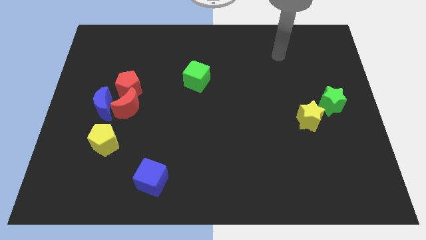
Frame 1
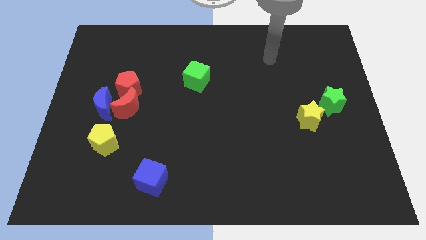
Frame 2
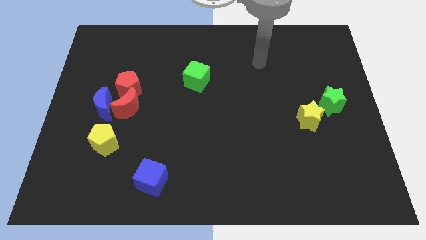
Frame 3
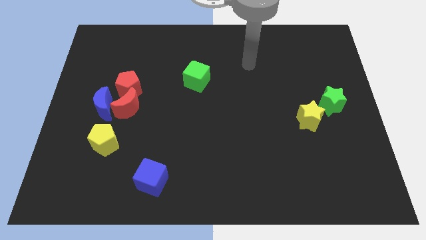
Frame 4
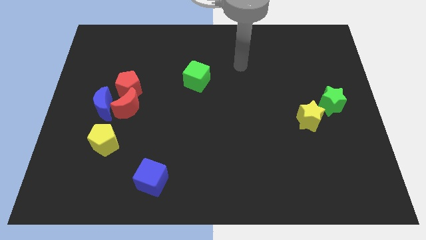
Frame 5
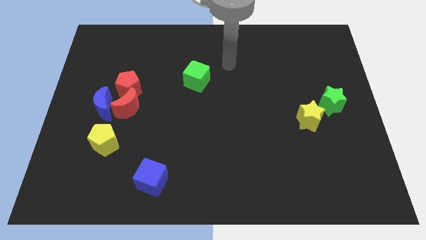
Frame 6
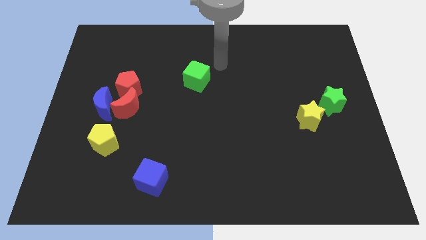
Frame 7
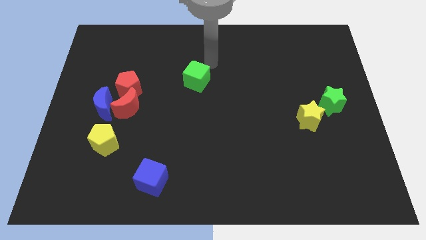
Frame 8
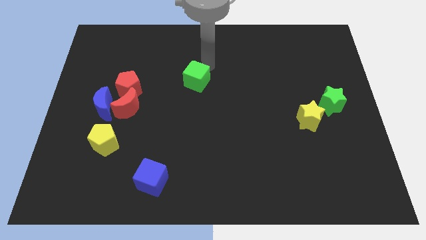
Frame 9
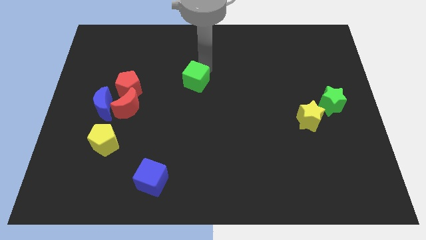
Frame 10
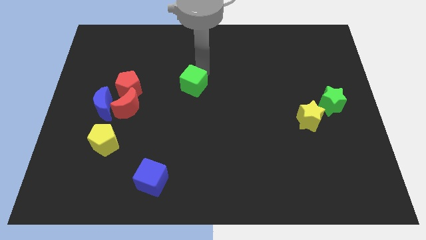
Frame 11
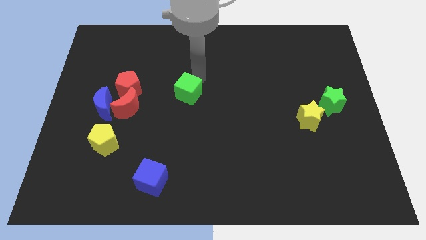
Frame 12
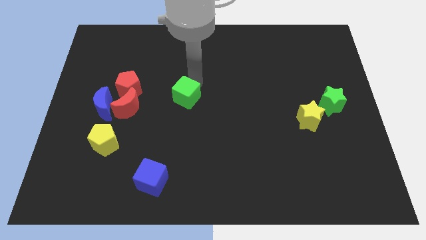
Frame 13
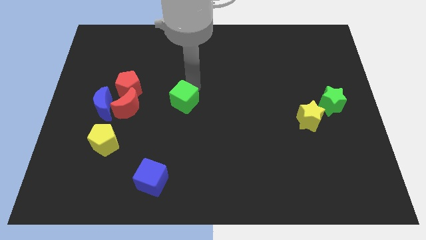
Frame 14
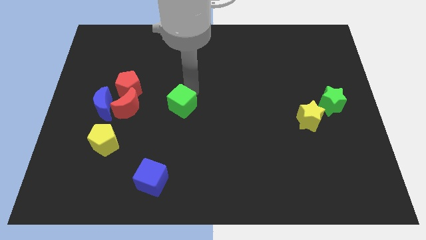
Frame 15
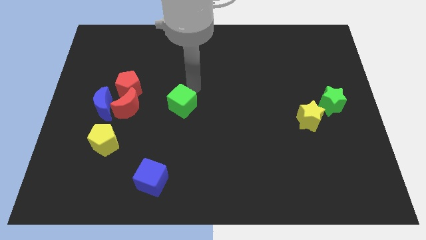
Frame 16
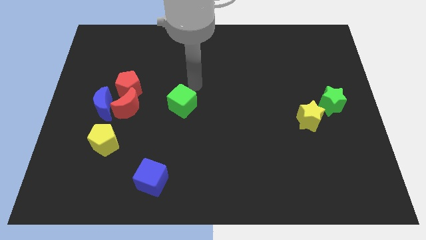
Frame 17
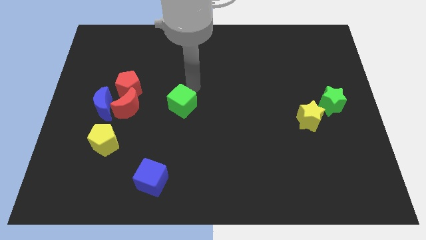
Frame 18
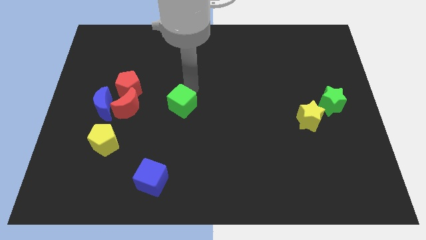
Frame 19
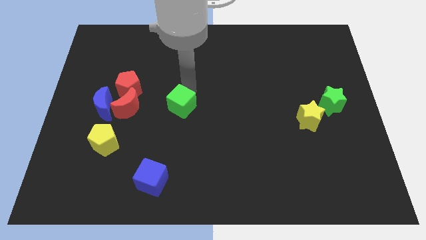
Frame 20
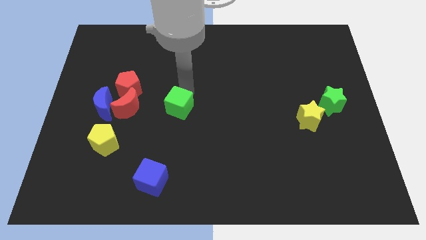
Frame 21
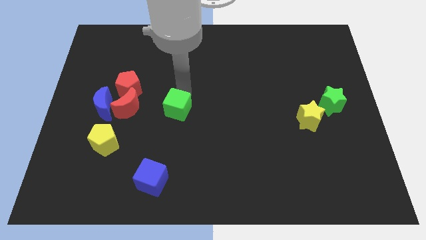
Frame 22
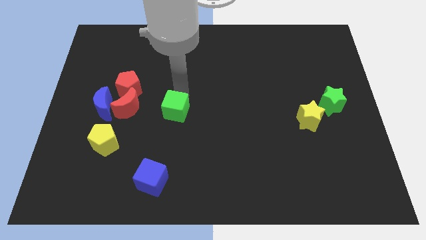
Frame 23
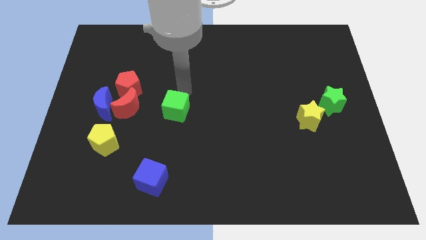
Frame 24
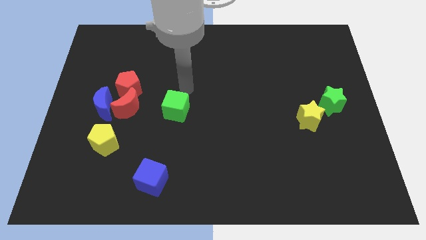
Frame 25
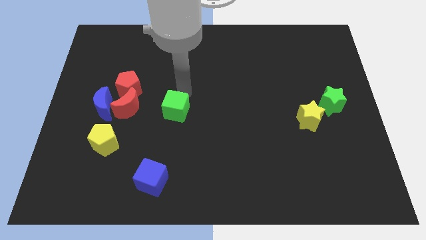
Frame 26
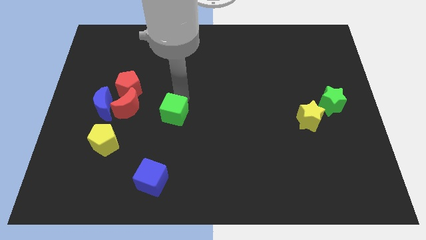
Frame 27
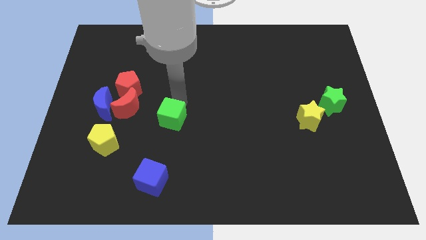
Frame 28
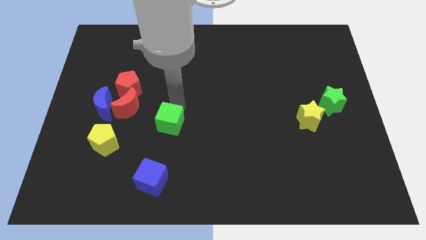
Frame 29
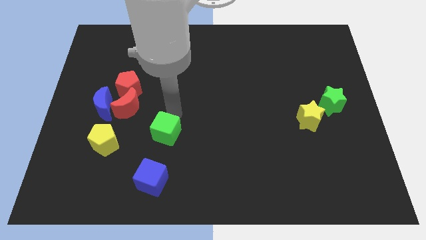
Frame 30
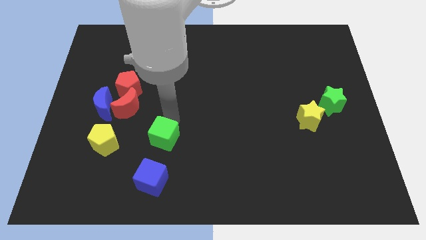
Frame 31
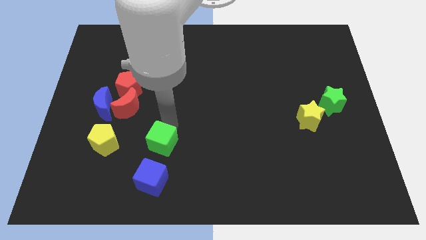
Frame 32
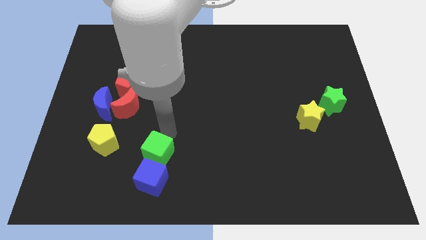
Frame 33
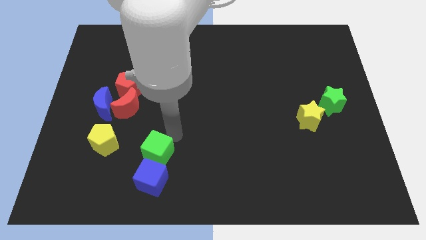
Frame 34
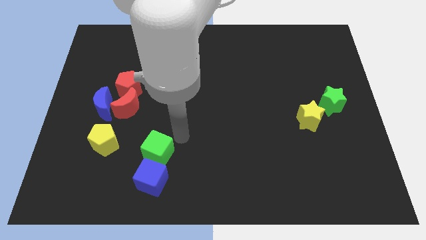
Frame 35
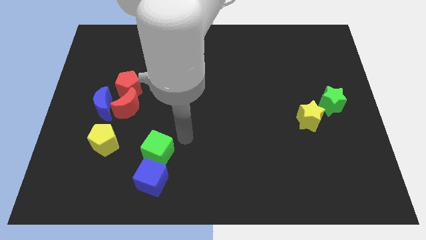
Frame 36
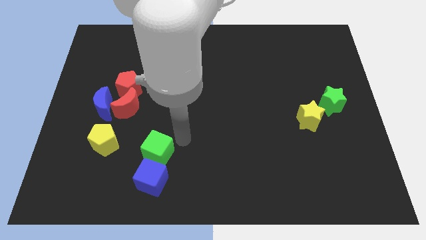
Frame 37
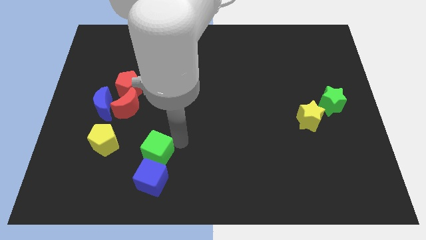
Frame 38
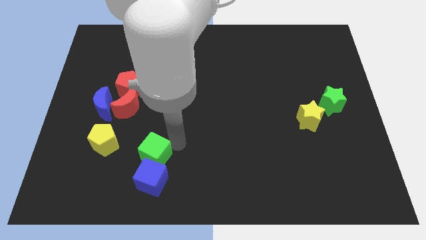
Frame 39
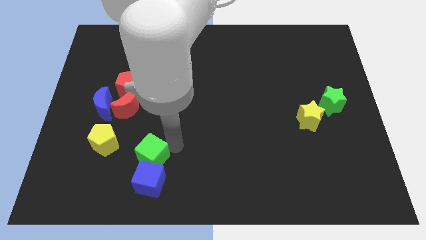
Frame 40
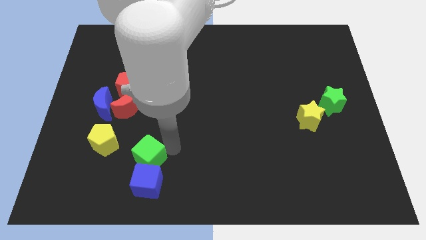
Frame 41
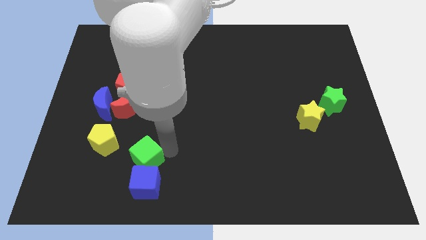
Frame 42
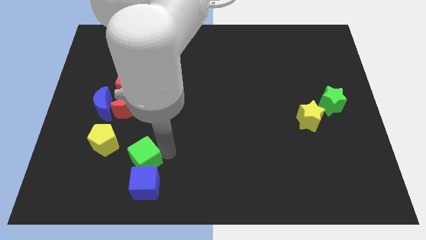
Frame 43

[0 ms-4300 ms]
move the green cube down and left

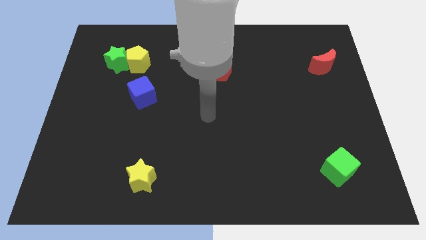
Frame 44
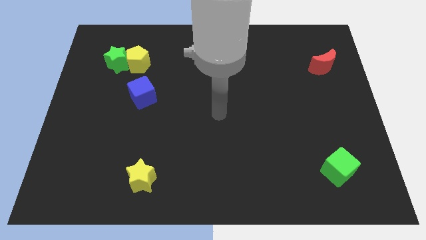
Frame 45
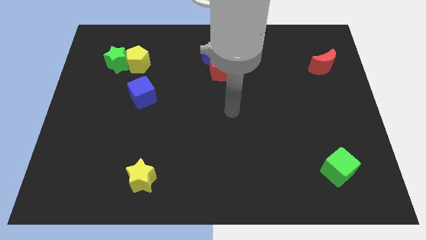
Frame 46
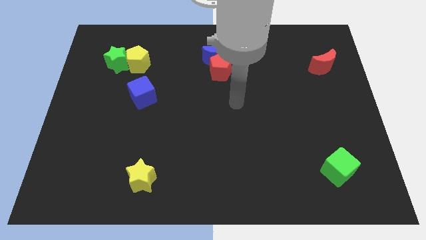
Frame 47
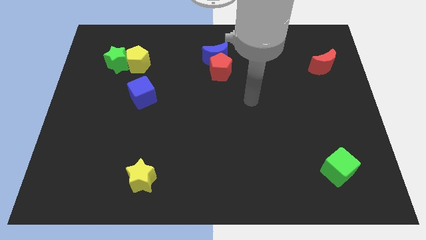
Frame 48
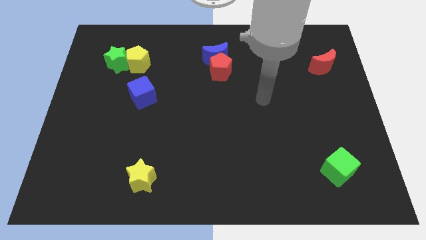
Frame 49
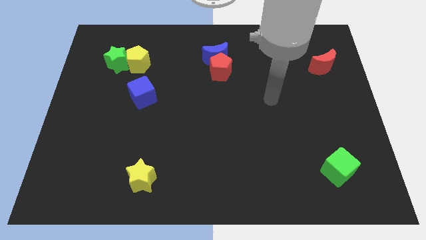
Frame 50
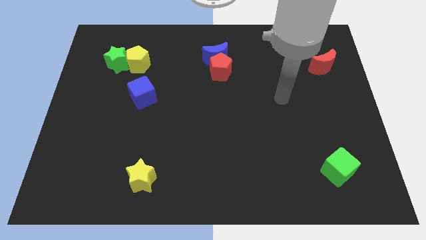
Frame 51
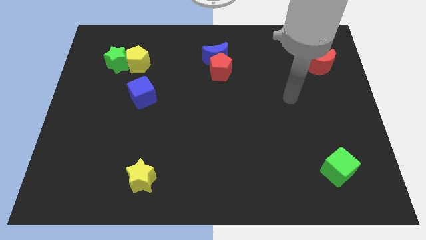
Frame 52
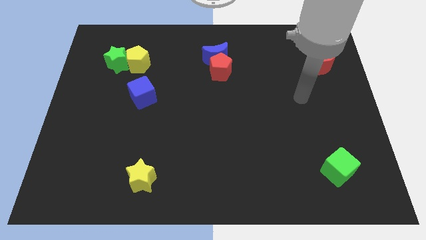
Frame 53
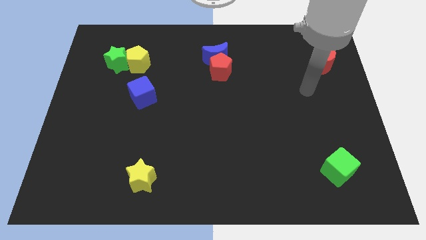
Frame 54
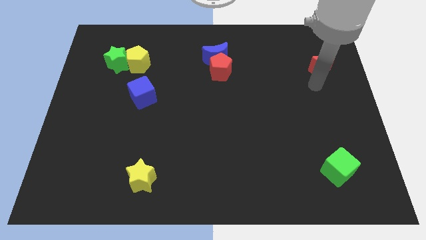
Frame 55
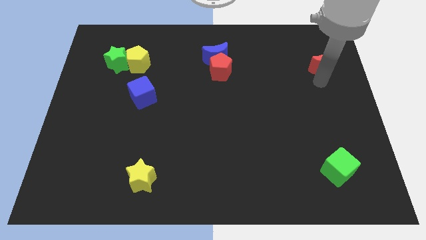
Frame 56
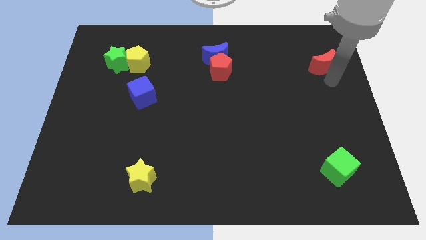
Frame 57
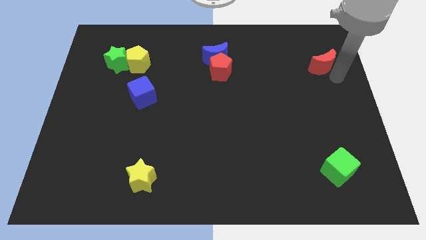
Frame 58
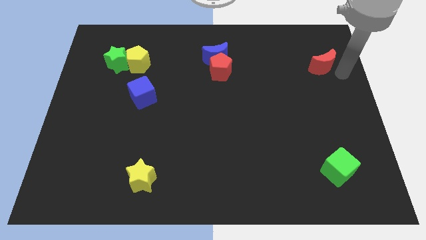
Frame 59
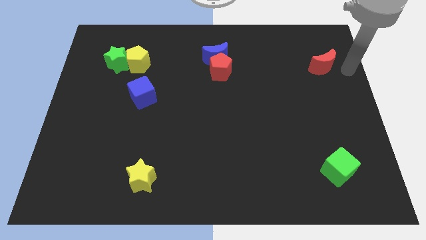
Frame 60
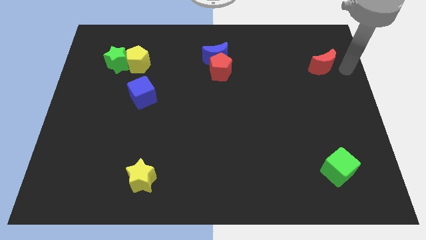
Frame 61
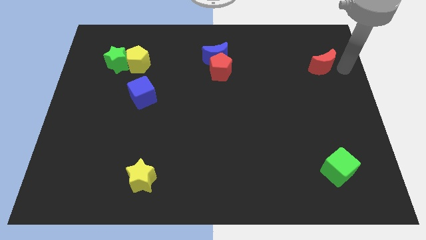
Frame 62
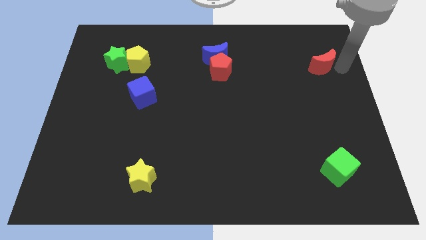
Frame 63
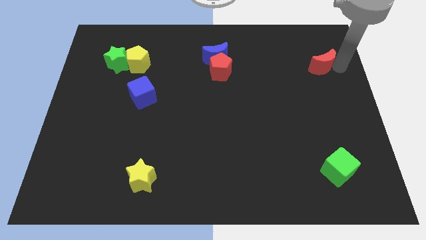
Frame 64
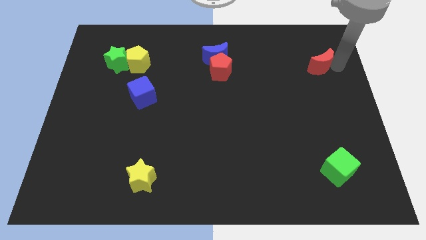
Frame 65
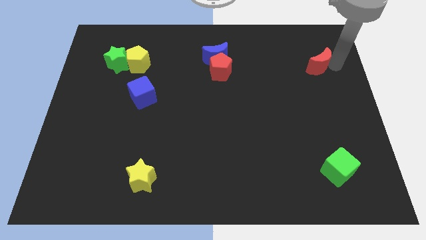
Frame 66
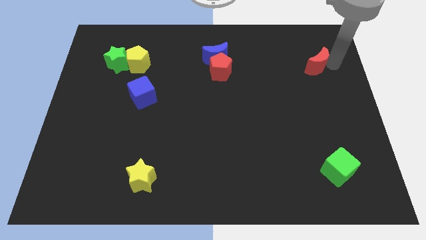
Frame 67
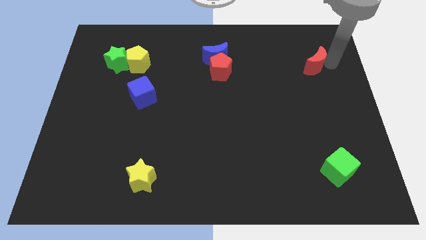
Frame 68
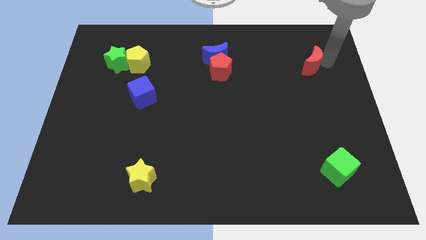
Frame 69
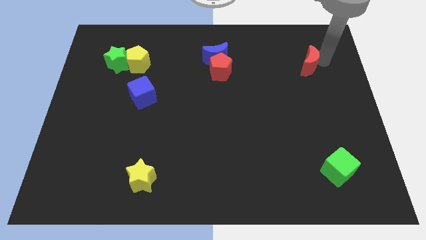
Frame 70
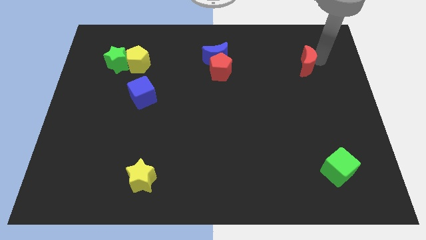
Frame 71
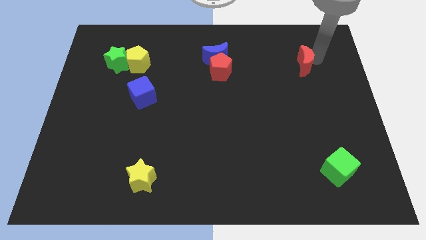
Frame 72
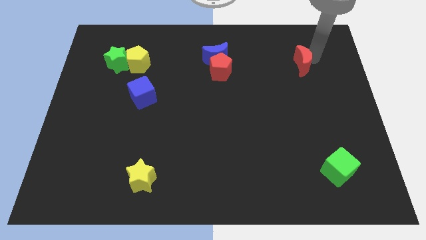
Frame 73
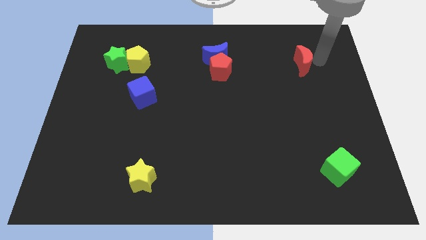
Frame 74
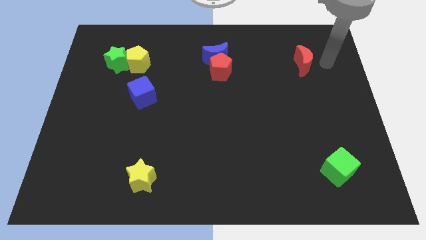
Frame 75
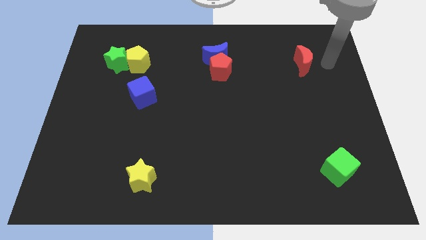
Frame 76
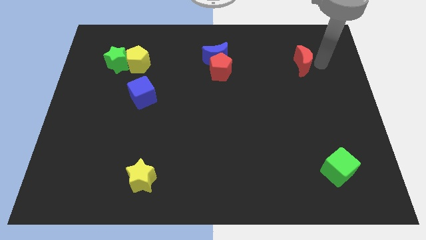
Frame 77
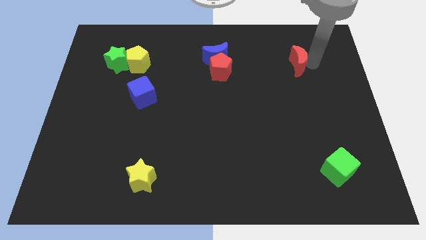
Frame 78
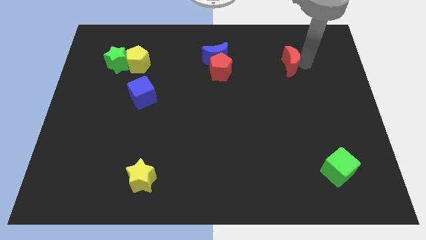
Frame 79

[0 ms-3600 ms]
move the red moon to the left slightly

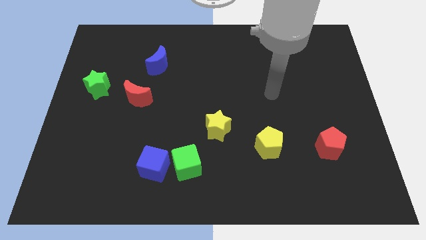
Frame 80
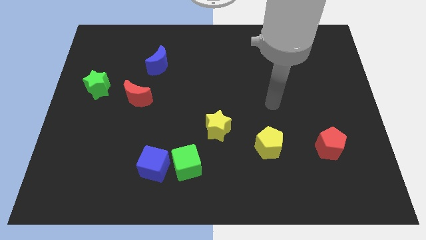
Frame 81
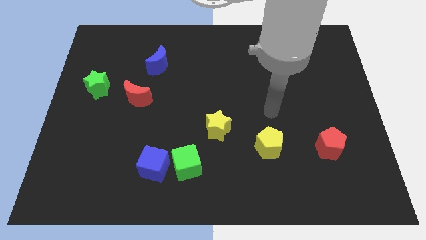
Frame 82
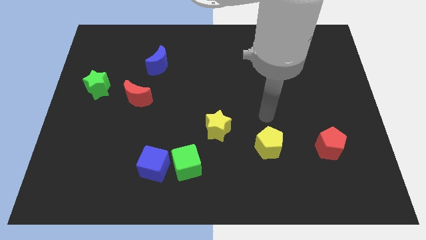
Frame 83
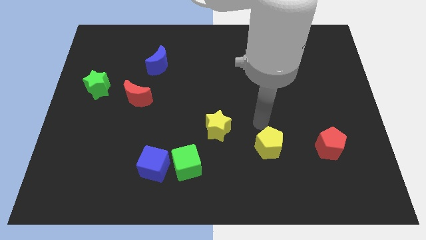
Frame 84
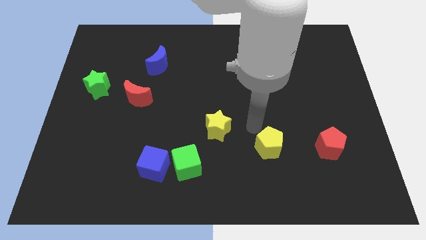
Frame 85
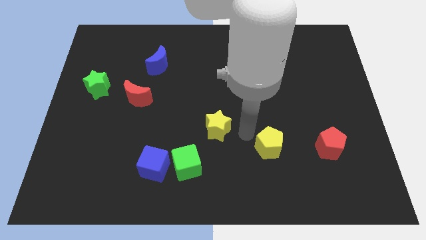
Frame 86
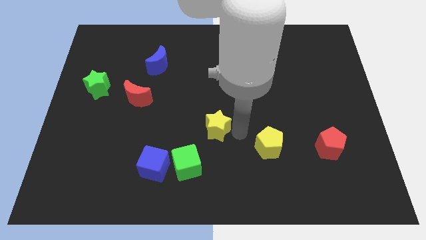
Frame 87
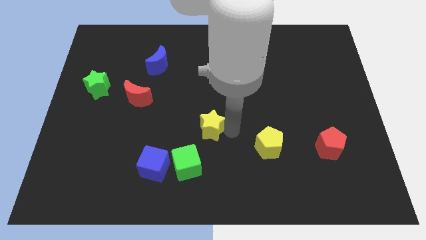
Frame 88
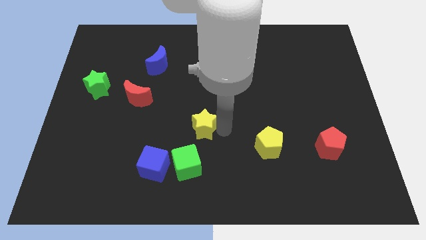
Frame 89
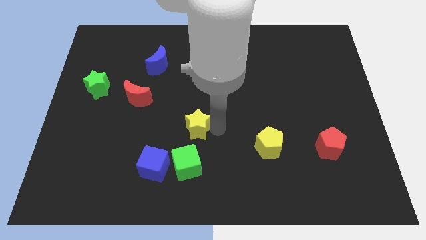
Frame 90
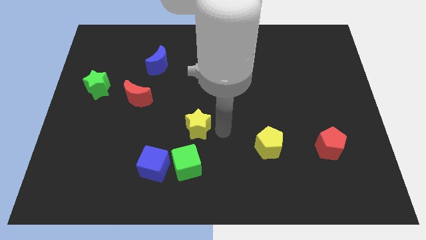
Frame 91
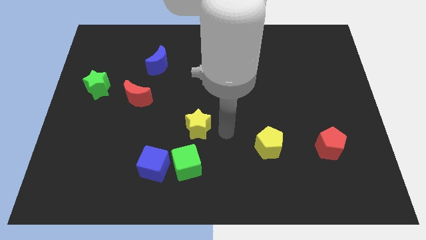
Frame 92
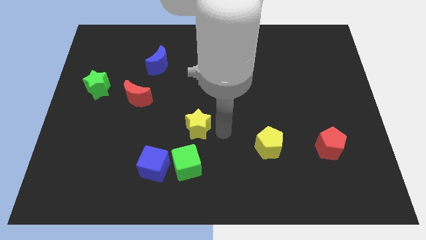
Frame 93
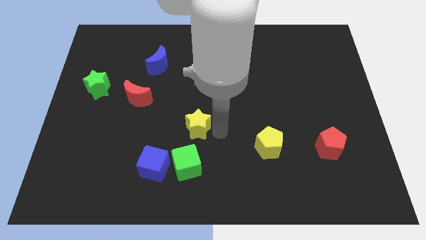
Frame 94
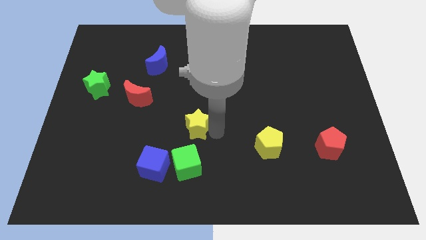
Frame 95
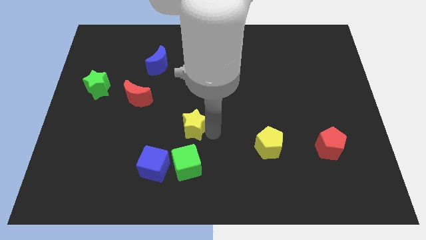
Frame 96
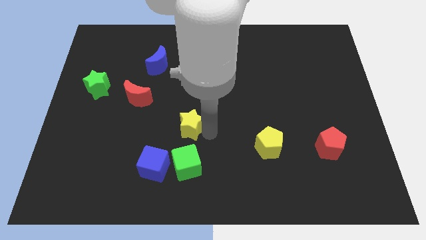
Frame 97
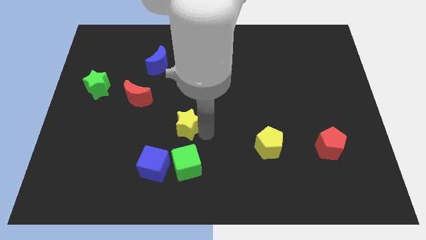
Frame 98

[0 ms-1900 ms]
slide the yellow star somewhat left
